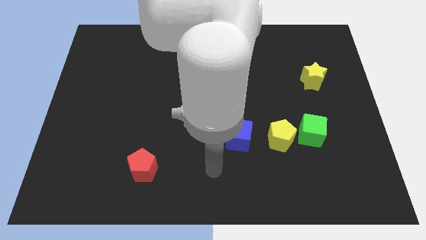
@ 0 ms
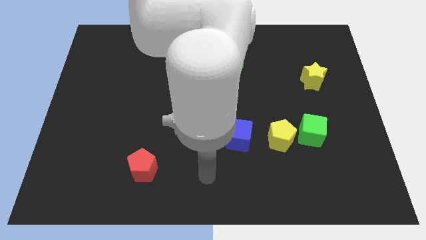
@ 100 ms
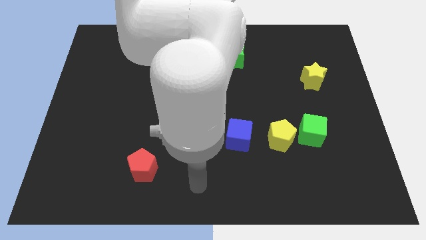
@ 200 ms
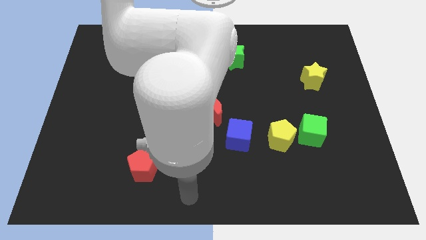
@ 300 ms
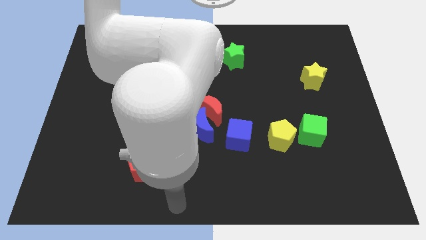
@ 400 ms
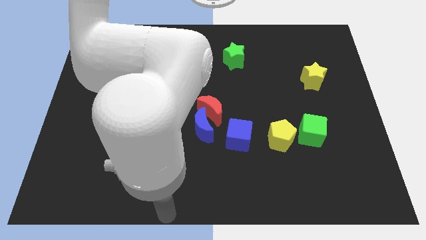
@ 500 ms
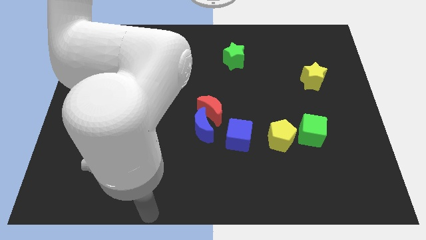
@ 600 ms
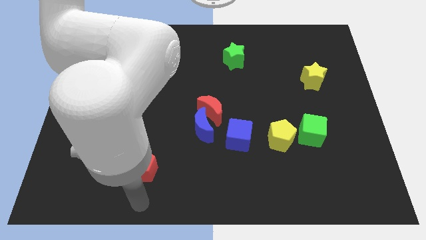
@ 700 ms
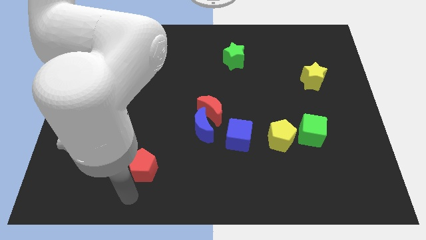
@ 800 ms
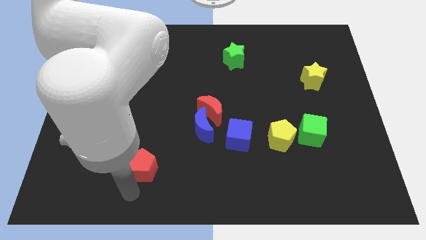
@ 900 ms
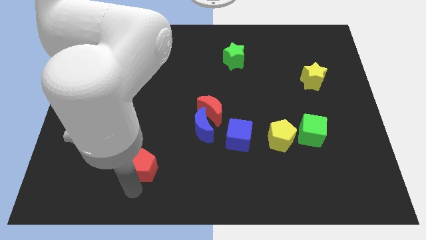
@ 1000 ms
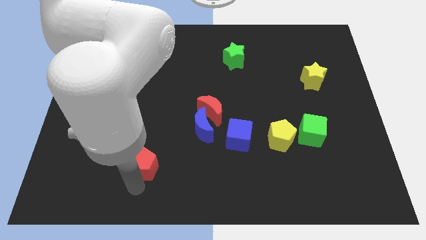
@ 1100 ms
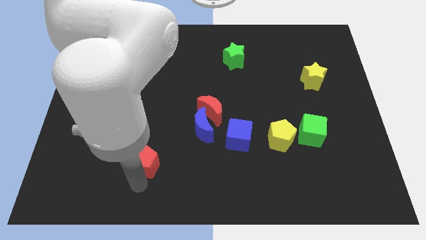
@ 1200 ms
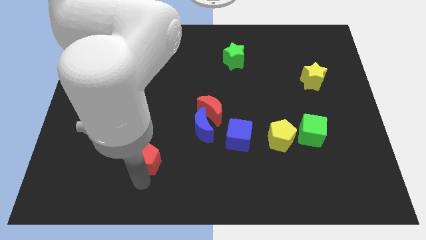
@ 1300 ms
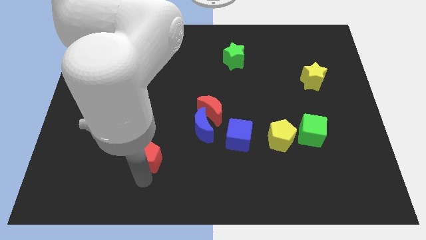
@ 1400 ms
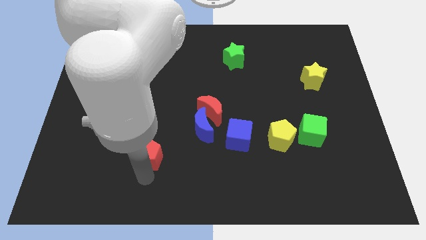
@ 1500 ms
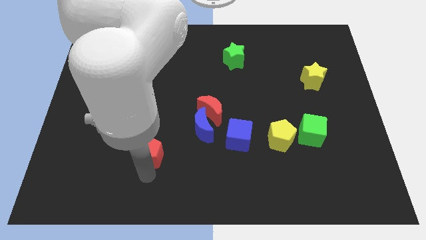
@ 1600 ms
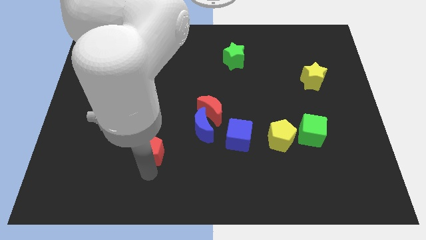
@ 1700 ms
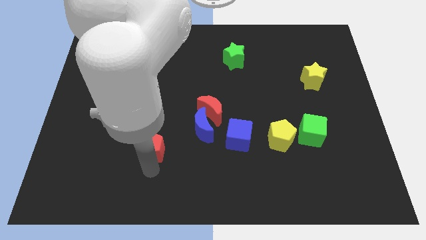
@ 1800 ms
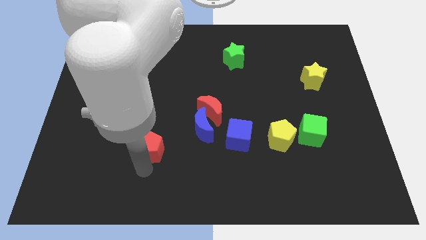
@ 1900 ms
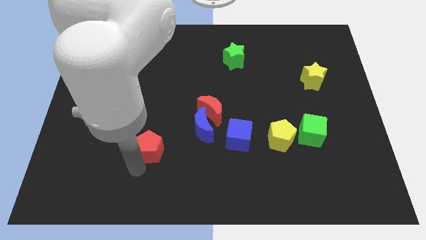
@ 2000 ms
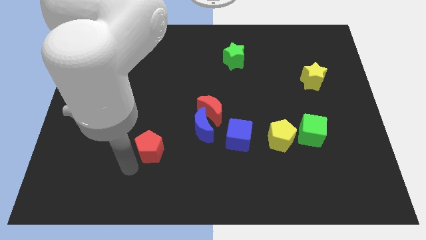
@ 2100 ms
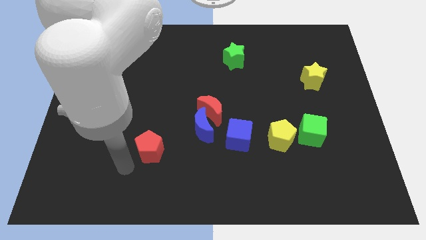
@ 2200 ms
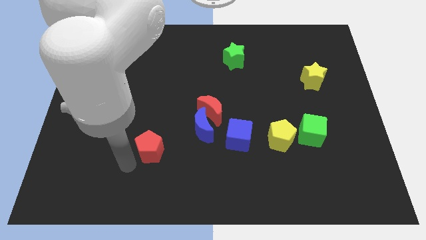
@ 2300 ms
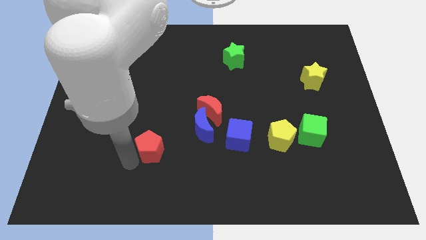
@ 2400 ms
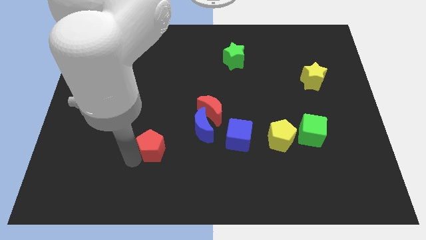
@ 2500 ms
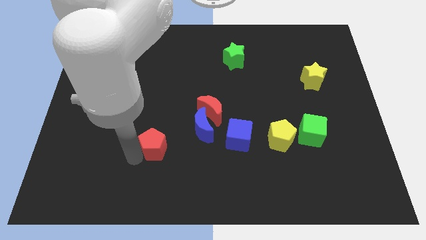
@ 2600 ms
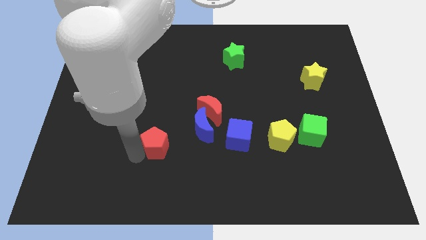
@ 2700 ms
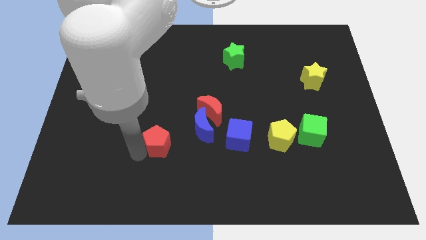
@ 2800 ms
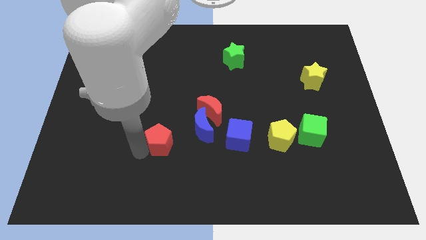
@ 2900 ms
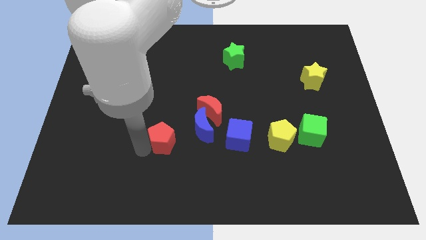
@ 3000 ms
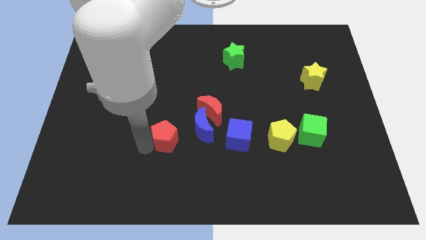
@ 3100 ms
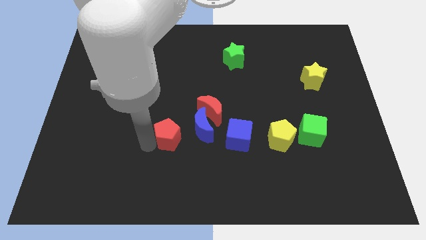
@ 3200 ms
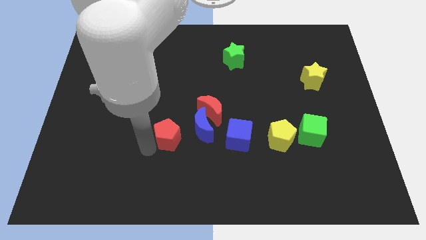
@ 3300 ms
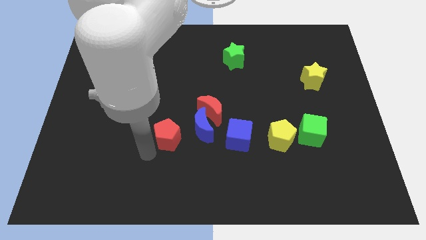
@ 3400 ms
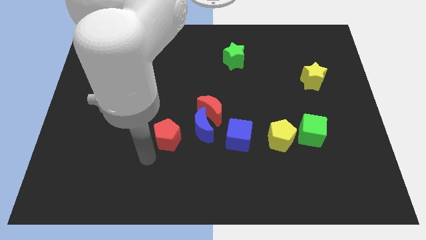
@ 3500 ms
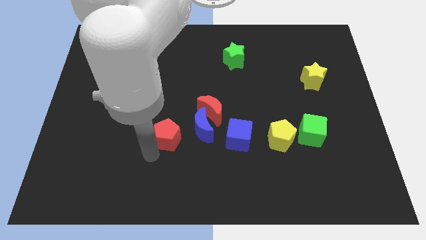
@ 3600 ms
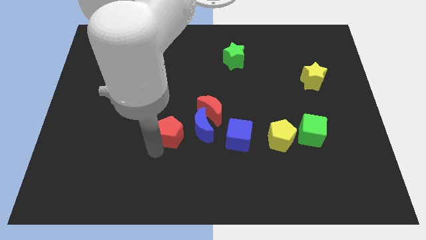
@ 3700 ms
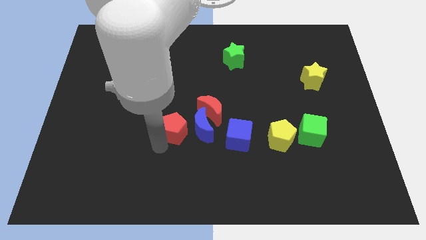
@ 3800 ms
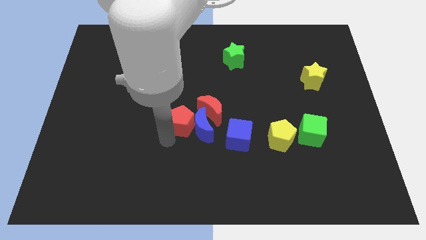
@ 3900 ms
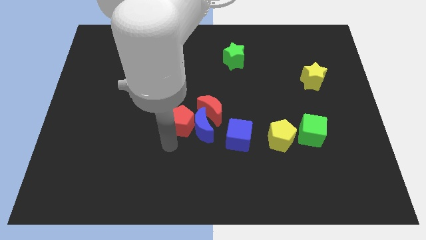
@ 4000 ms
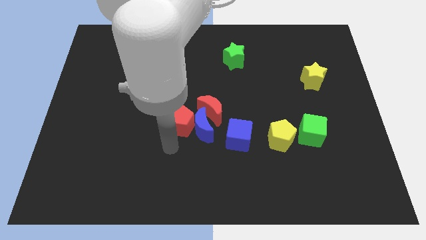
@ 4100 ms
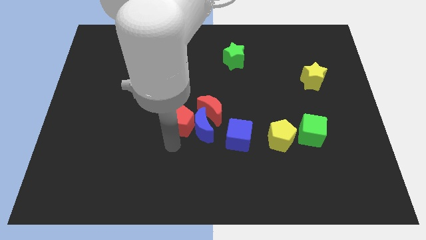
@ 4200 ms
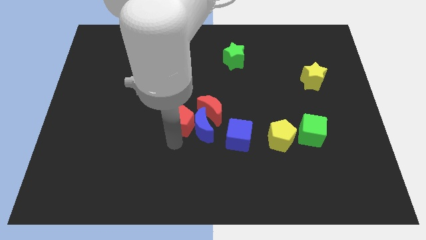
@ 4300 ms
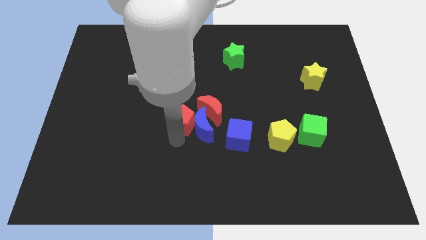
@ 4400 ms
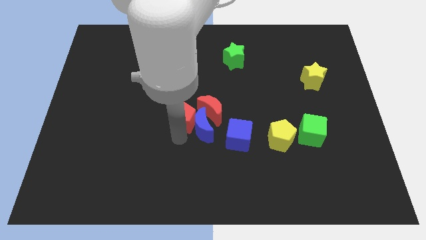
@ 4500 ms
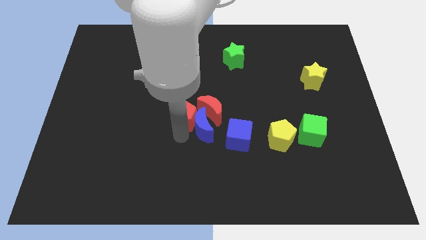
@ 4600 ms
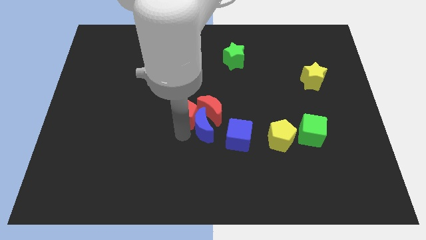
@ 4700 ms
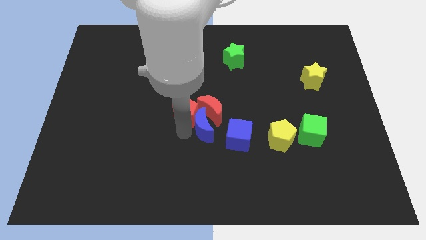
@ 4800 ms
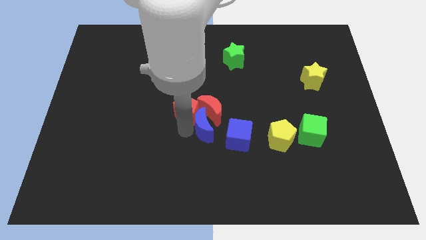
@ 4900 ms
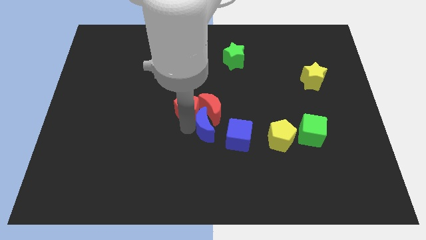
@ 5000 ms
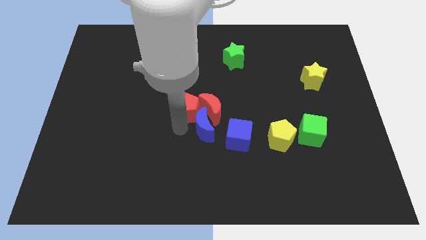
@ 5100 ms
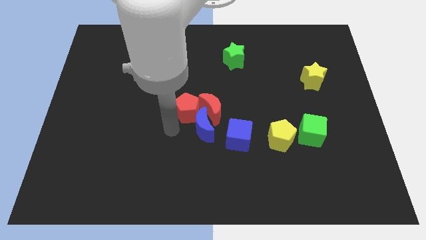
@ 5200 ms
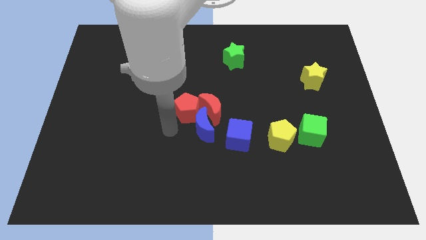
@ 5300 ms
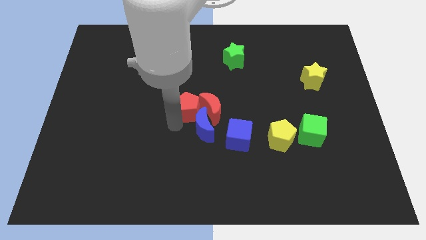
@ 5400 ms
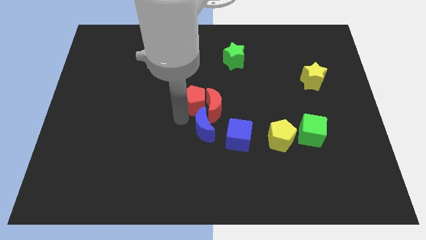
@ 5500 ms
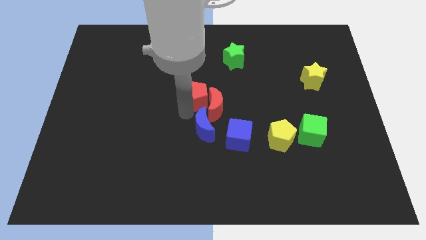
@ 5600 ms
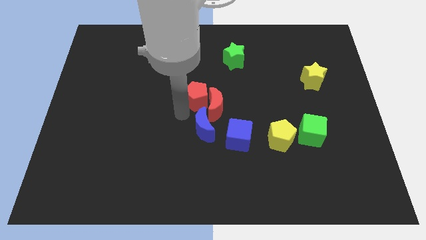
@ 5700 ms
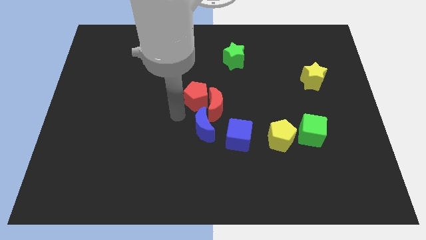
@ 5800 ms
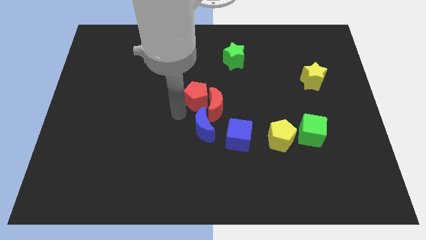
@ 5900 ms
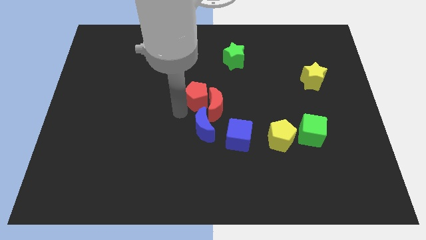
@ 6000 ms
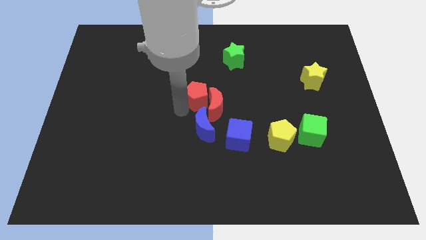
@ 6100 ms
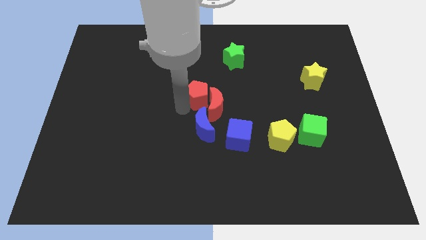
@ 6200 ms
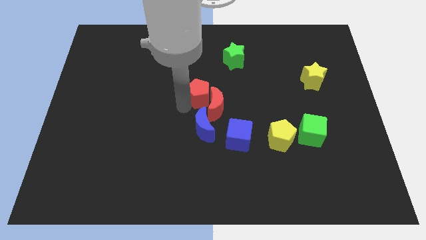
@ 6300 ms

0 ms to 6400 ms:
slide the red pentagon diagonally upwards and right

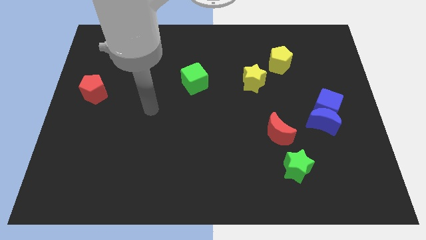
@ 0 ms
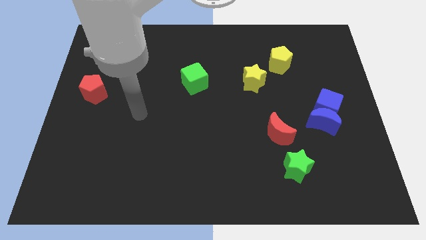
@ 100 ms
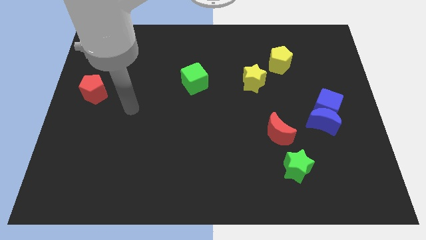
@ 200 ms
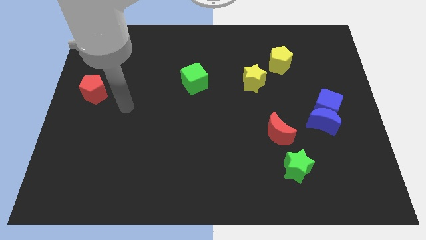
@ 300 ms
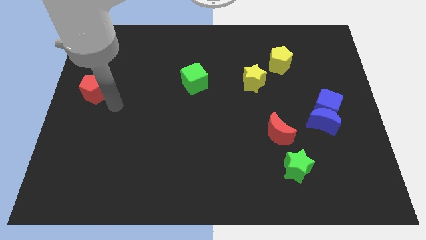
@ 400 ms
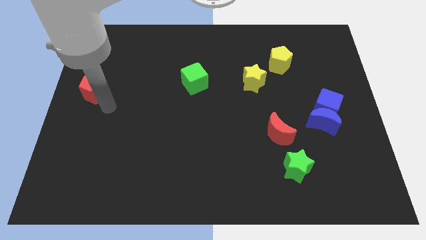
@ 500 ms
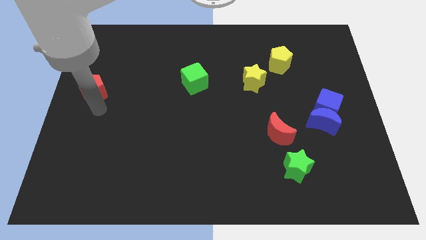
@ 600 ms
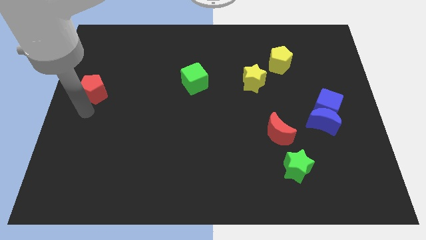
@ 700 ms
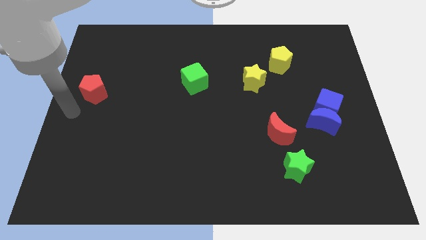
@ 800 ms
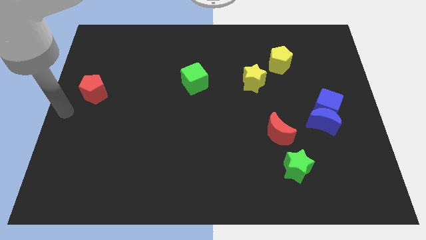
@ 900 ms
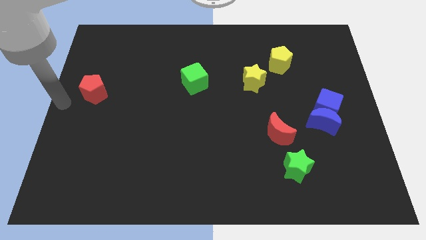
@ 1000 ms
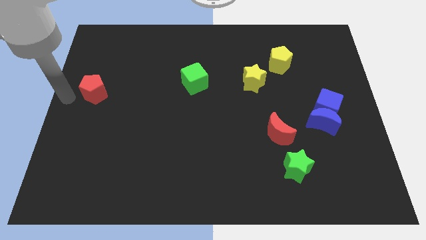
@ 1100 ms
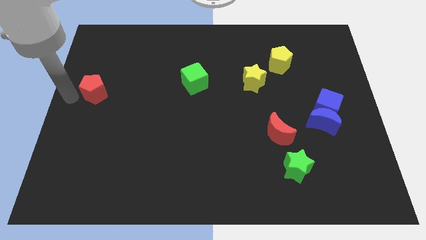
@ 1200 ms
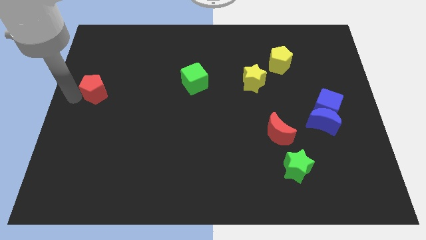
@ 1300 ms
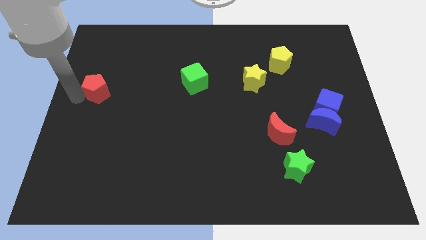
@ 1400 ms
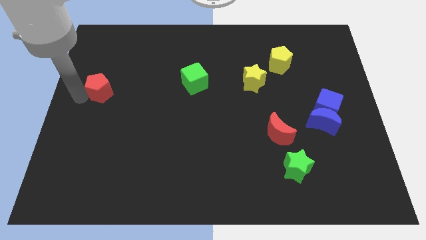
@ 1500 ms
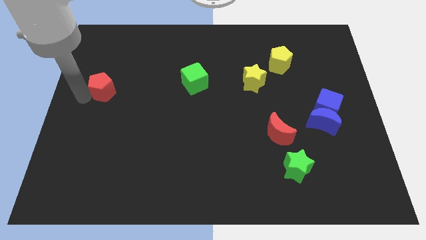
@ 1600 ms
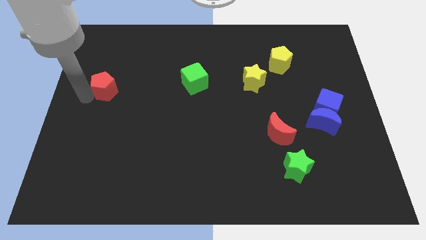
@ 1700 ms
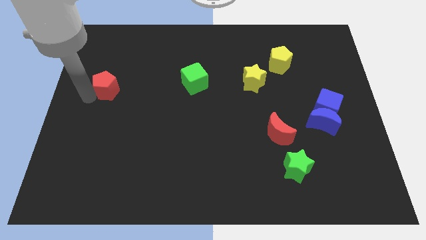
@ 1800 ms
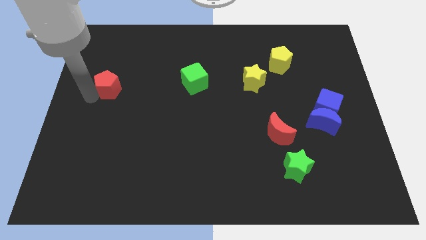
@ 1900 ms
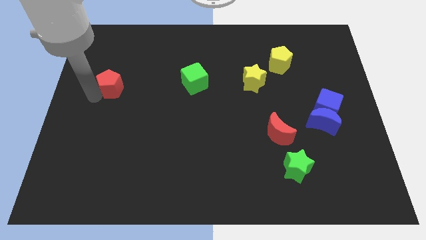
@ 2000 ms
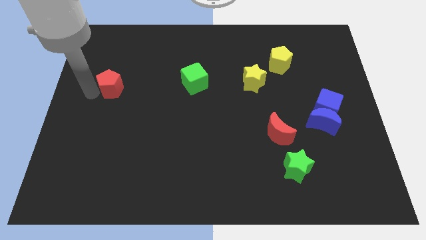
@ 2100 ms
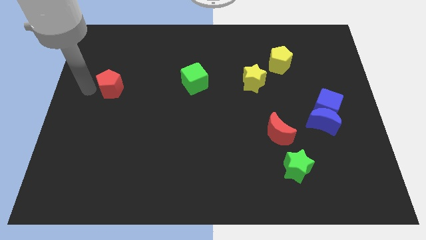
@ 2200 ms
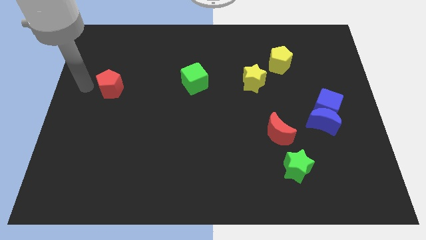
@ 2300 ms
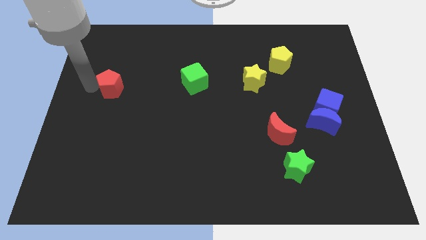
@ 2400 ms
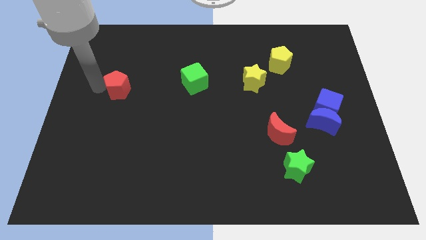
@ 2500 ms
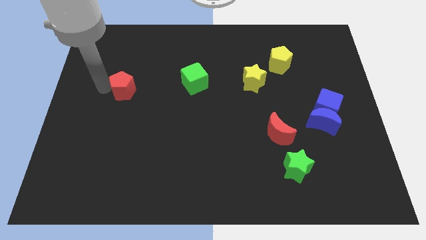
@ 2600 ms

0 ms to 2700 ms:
slightly slide the red pentagon to the right
